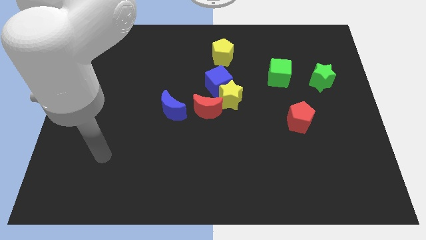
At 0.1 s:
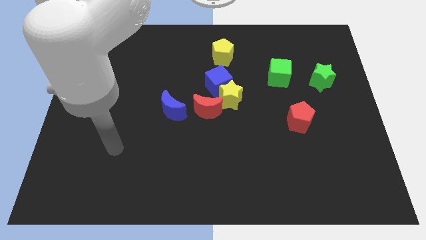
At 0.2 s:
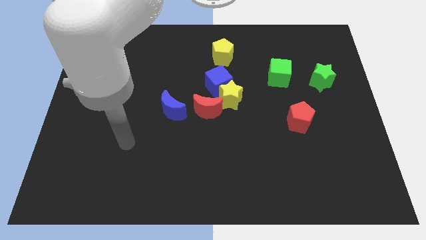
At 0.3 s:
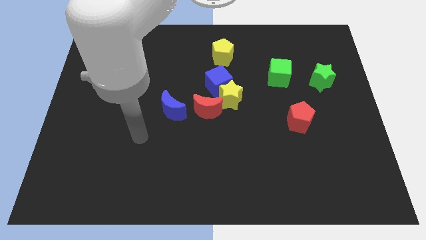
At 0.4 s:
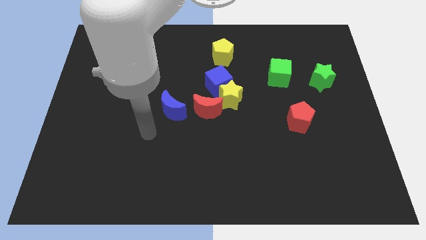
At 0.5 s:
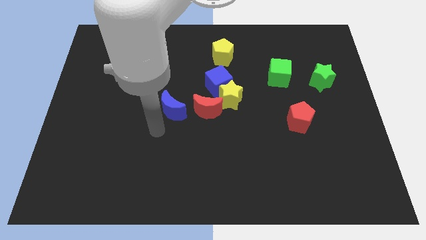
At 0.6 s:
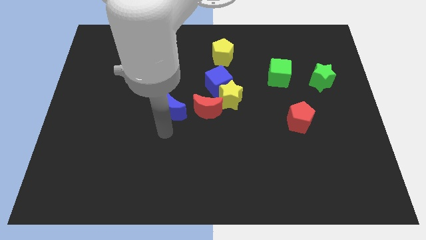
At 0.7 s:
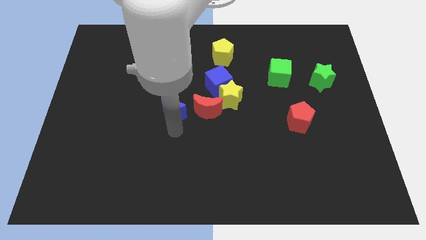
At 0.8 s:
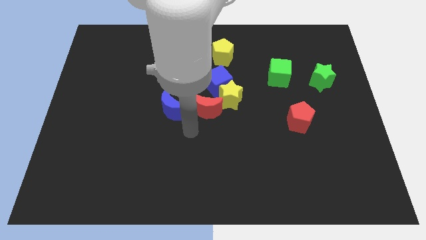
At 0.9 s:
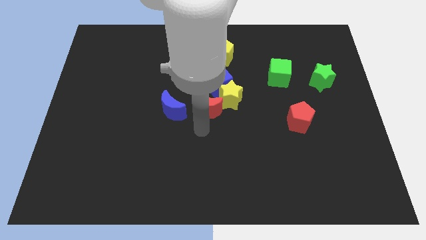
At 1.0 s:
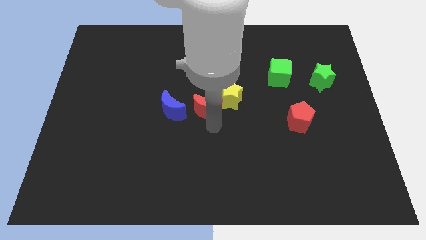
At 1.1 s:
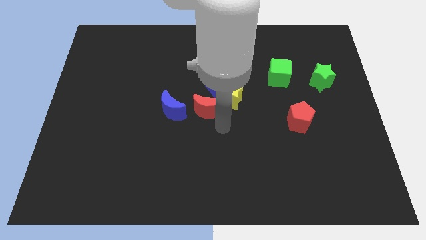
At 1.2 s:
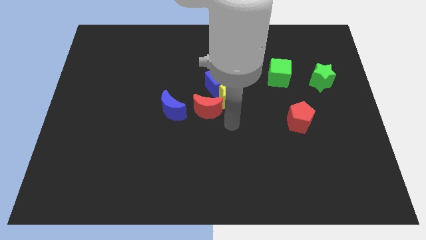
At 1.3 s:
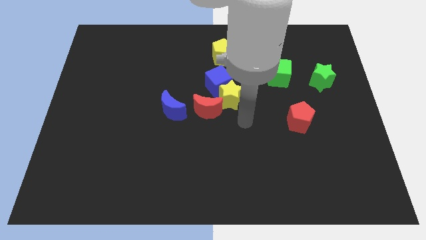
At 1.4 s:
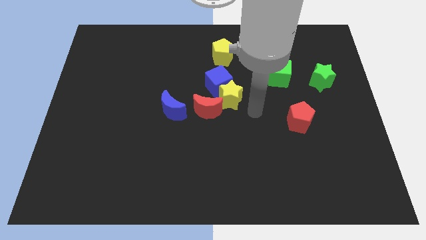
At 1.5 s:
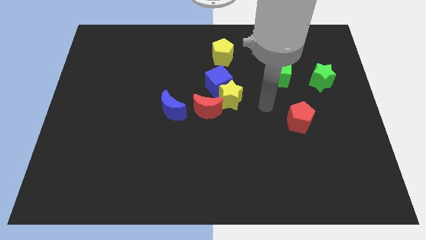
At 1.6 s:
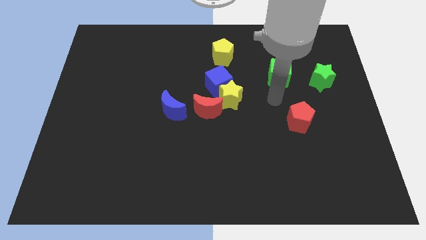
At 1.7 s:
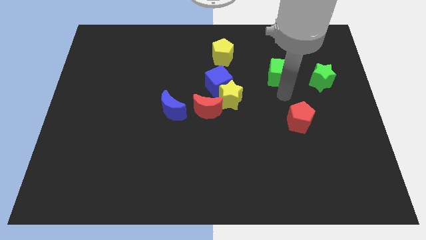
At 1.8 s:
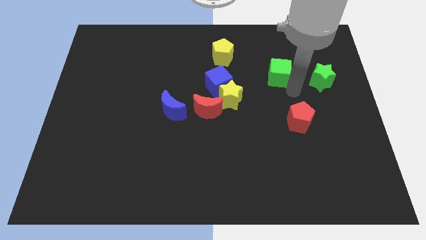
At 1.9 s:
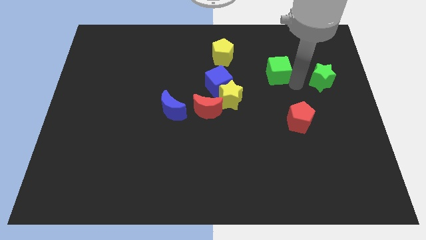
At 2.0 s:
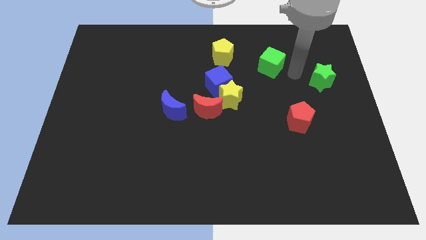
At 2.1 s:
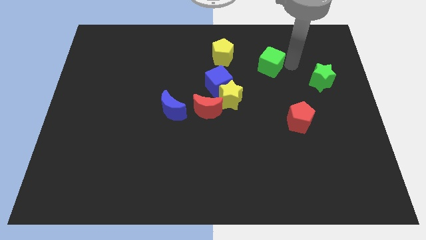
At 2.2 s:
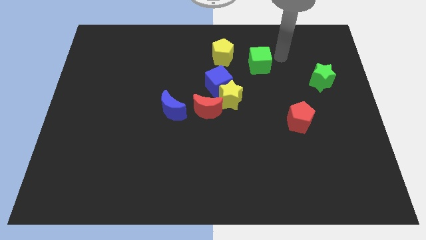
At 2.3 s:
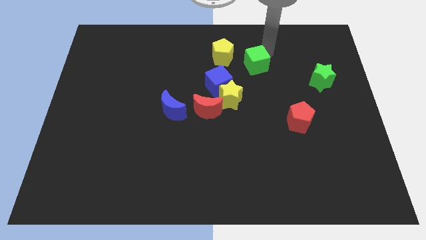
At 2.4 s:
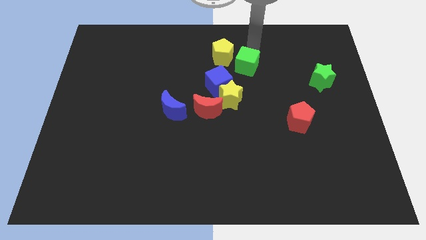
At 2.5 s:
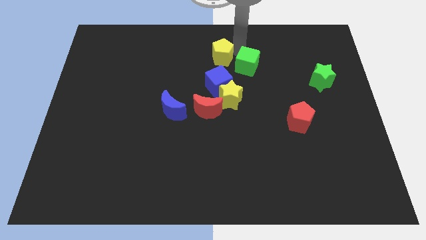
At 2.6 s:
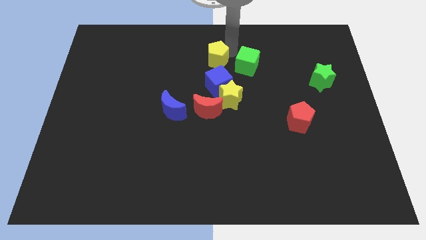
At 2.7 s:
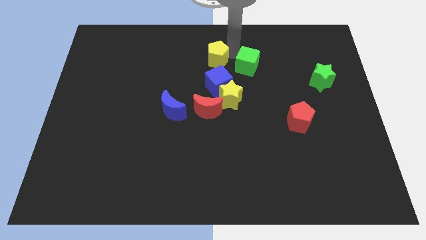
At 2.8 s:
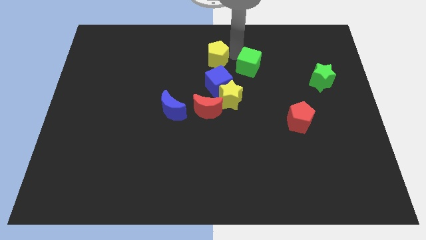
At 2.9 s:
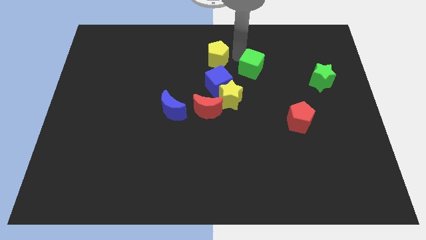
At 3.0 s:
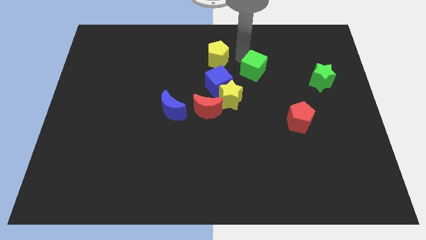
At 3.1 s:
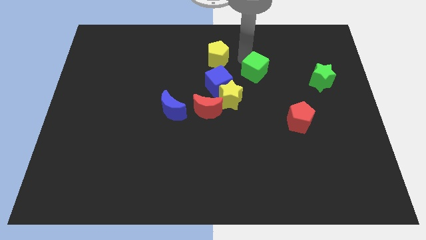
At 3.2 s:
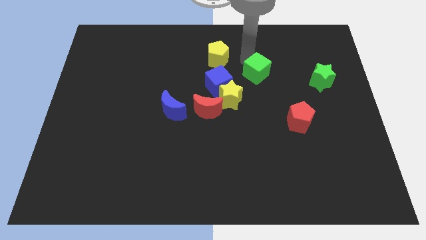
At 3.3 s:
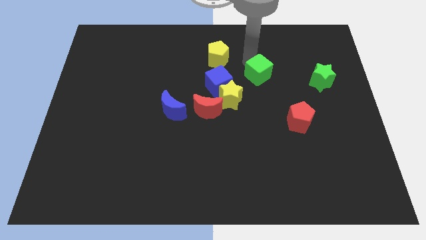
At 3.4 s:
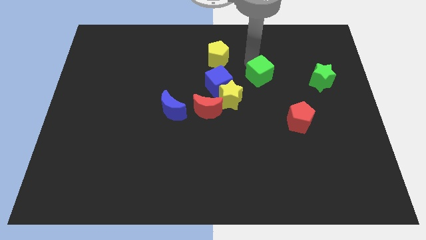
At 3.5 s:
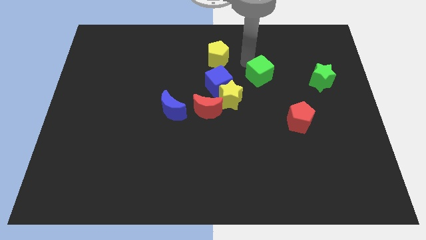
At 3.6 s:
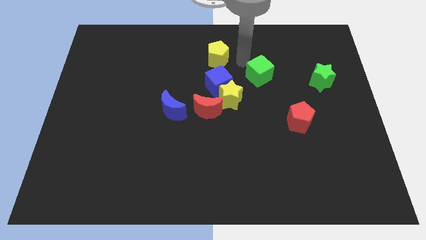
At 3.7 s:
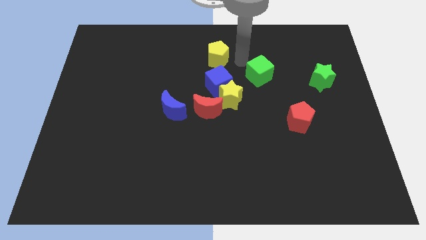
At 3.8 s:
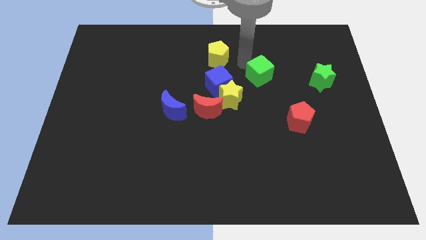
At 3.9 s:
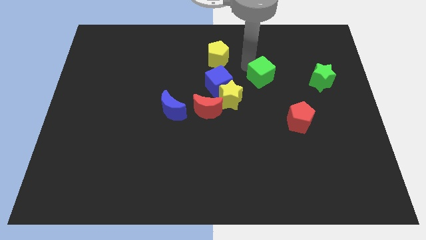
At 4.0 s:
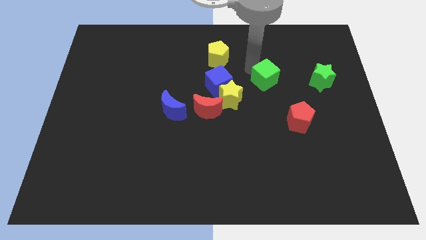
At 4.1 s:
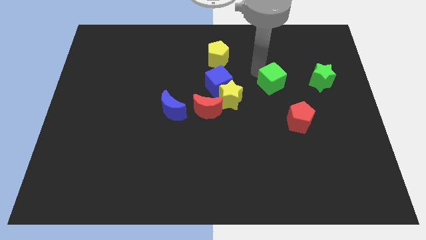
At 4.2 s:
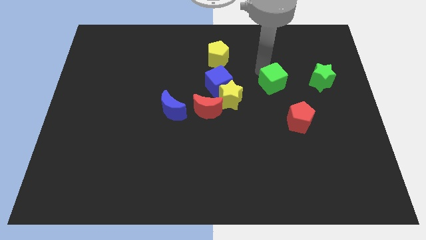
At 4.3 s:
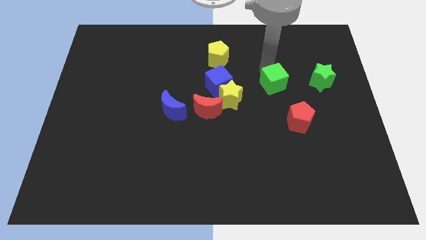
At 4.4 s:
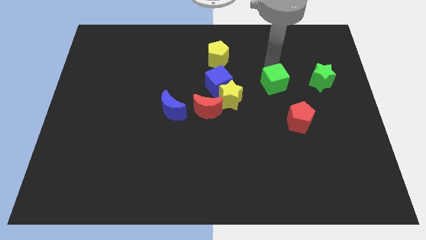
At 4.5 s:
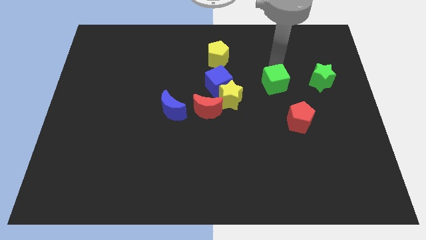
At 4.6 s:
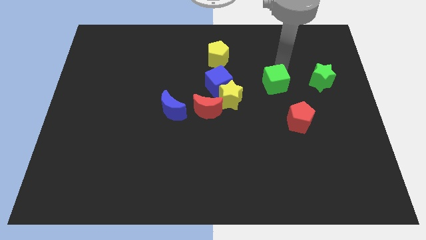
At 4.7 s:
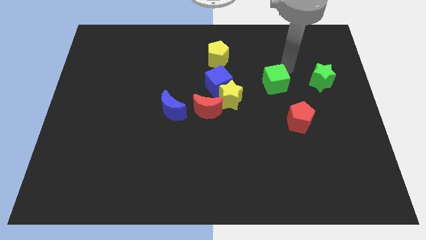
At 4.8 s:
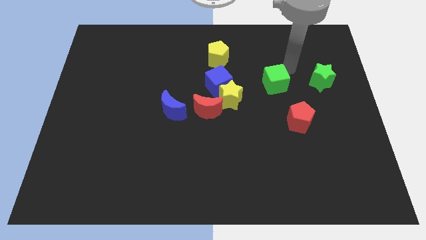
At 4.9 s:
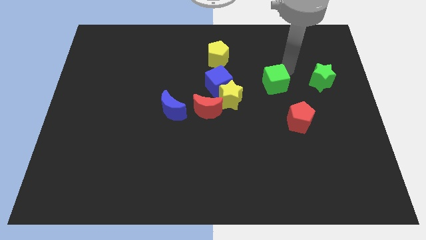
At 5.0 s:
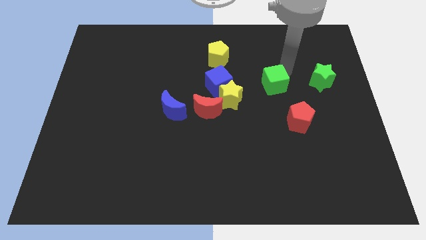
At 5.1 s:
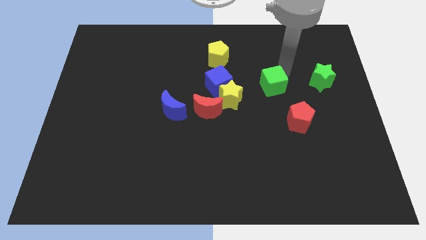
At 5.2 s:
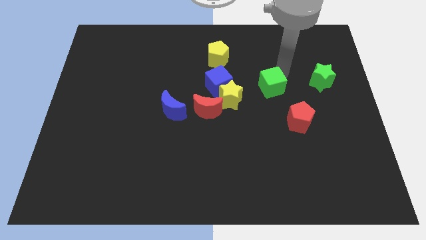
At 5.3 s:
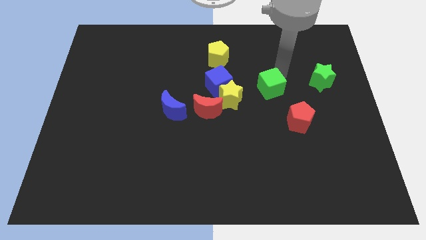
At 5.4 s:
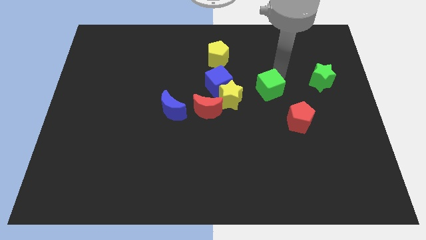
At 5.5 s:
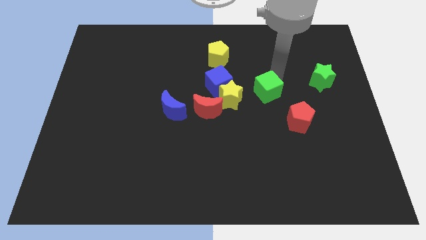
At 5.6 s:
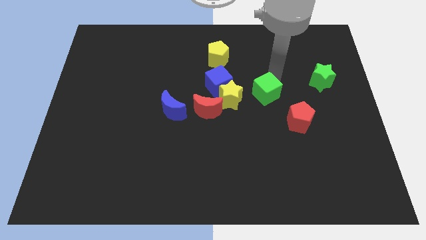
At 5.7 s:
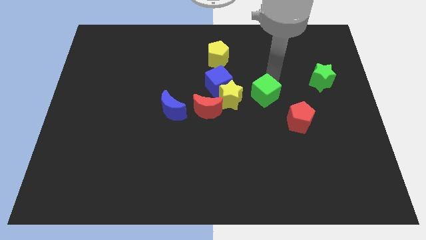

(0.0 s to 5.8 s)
slide the green cube a bit diagonally down and to the left

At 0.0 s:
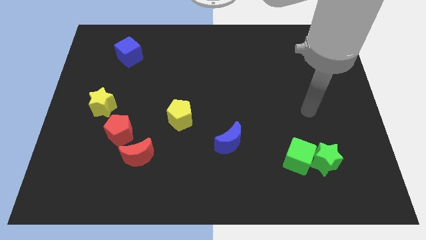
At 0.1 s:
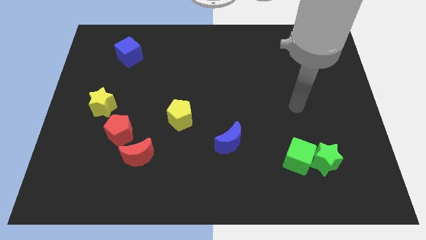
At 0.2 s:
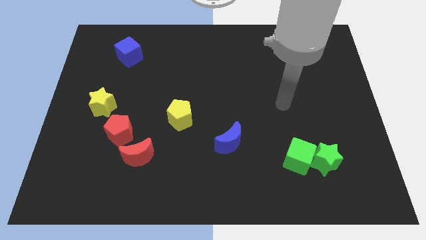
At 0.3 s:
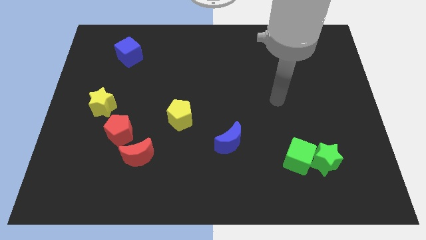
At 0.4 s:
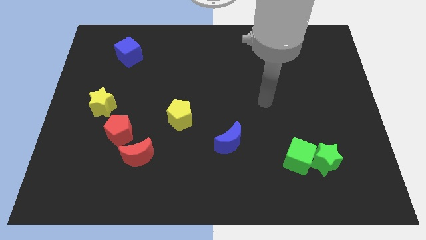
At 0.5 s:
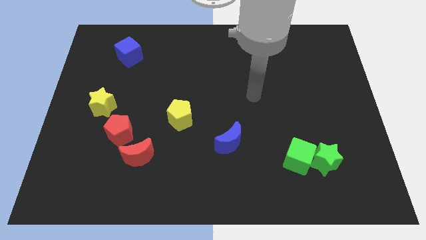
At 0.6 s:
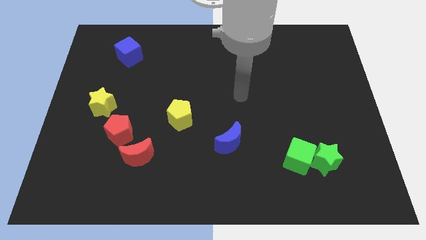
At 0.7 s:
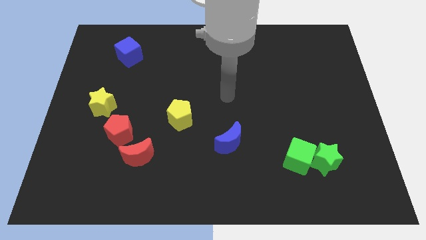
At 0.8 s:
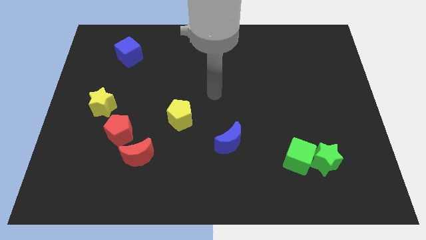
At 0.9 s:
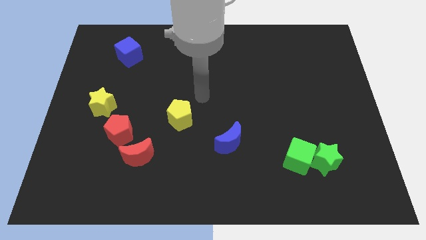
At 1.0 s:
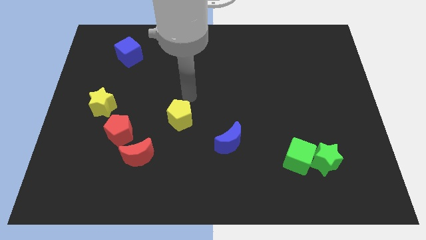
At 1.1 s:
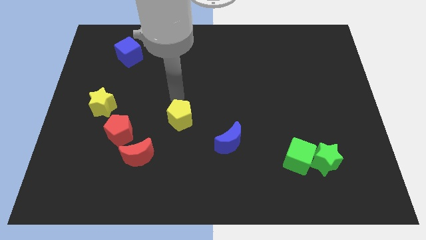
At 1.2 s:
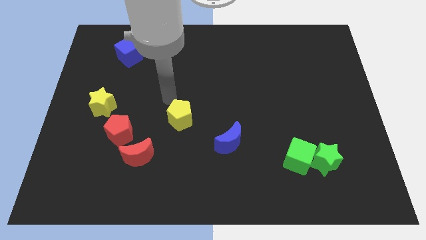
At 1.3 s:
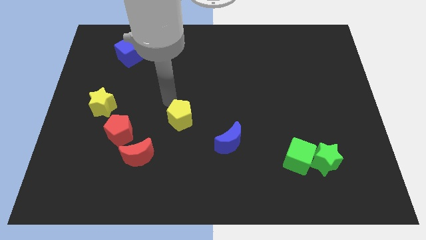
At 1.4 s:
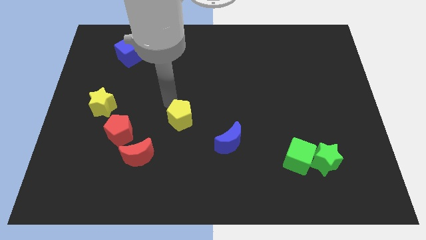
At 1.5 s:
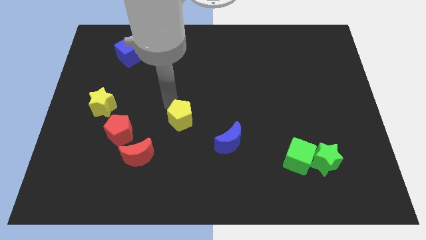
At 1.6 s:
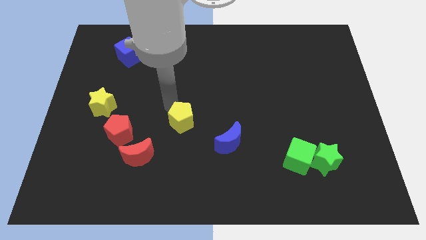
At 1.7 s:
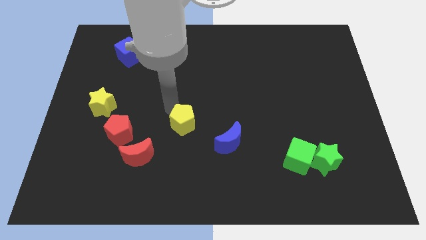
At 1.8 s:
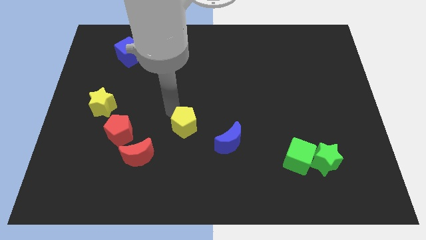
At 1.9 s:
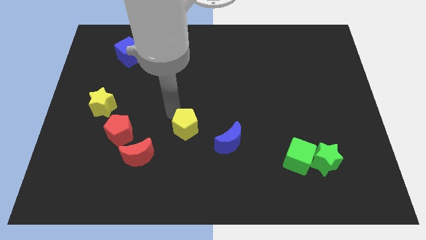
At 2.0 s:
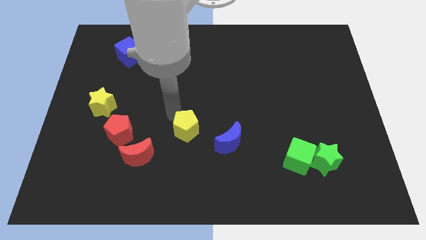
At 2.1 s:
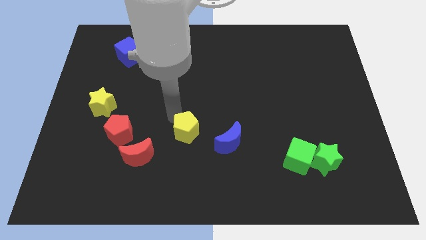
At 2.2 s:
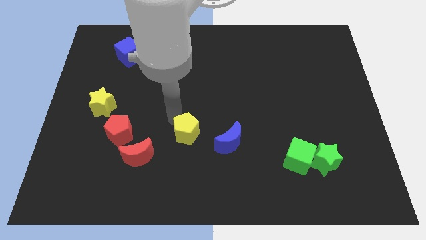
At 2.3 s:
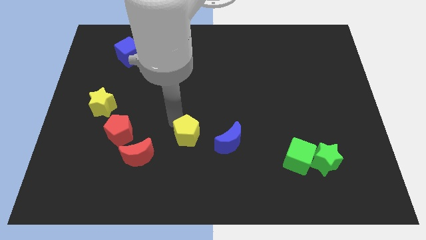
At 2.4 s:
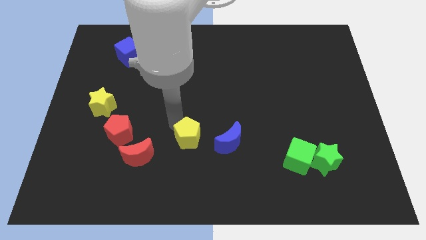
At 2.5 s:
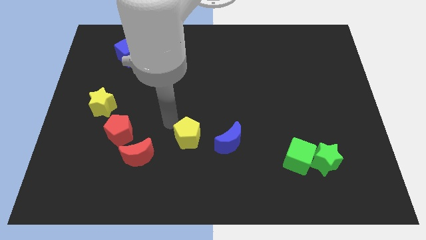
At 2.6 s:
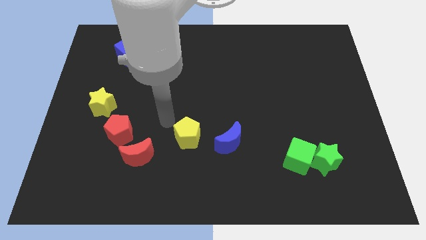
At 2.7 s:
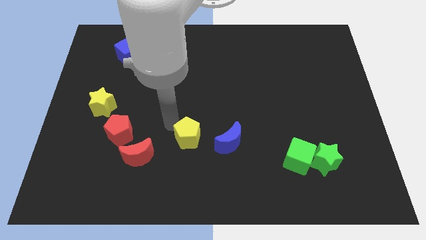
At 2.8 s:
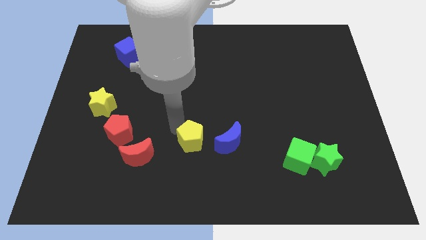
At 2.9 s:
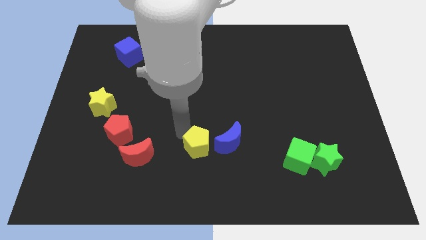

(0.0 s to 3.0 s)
slide the yellow pentagon downwards and then right slightly
